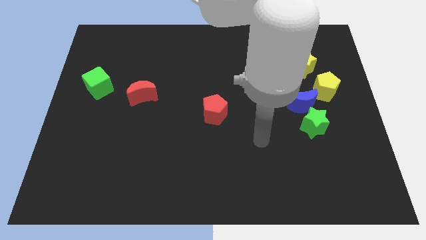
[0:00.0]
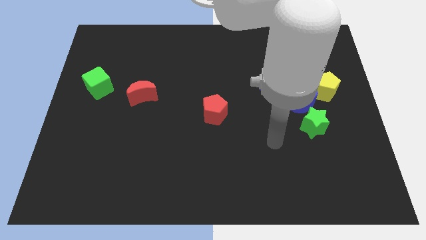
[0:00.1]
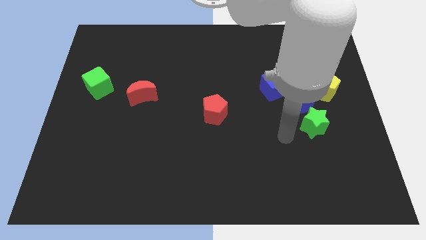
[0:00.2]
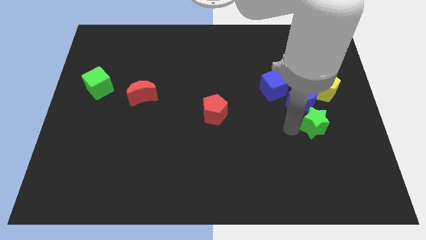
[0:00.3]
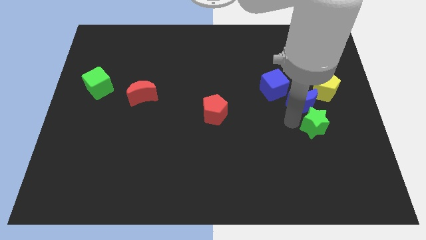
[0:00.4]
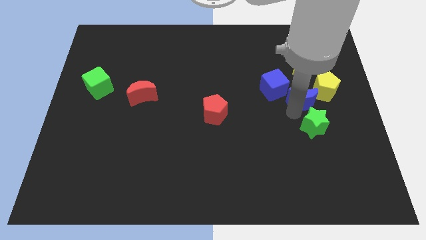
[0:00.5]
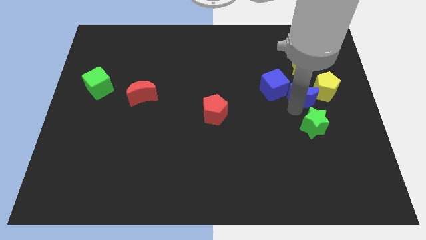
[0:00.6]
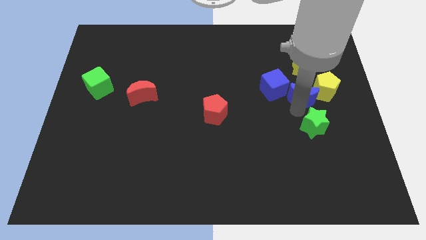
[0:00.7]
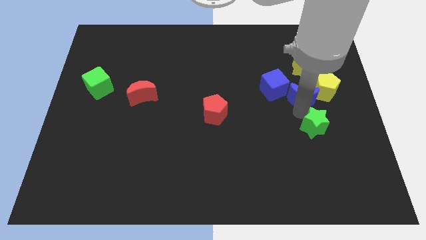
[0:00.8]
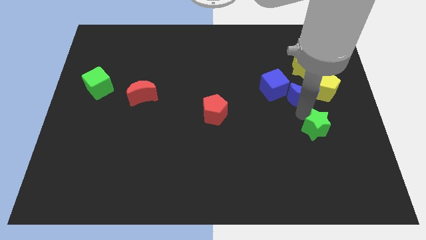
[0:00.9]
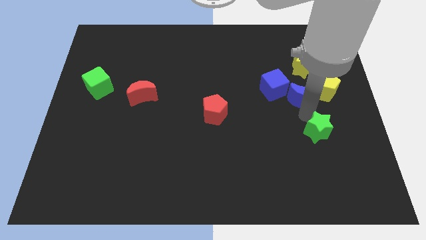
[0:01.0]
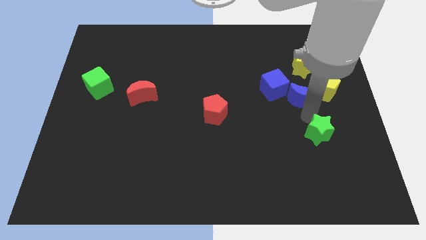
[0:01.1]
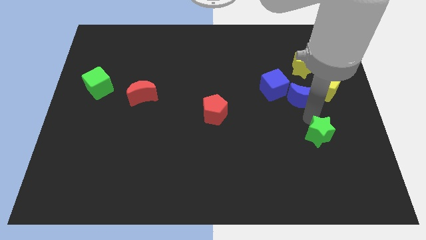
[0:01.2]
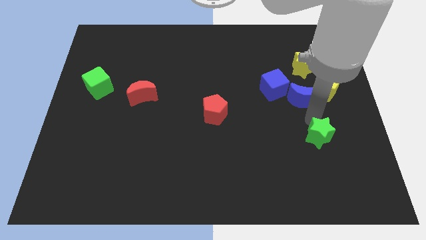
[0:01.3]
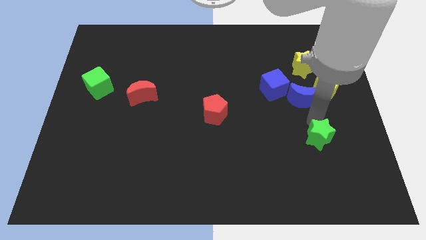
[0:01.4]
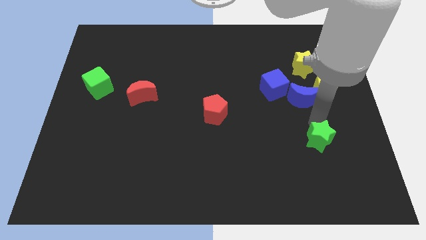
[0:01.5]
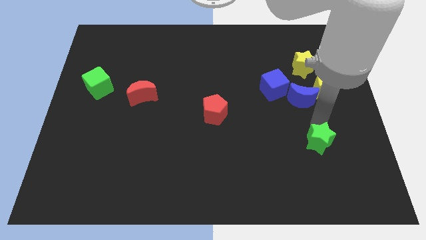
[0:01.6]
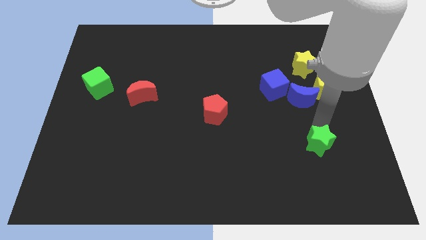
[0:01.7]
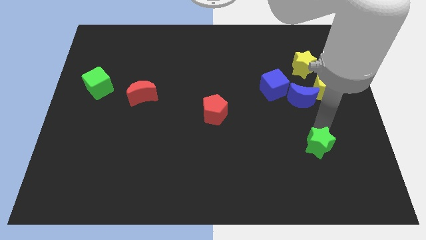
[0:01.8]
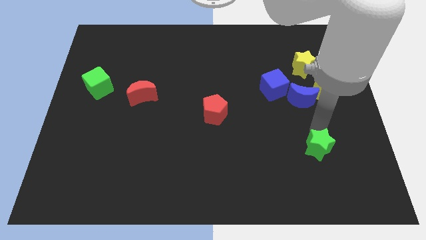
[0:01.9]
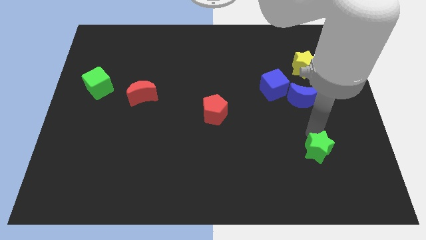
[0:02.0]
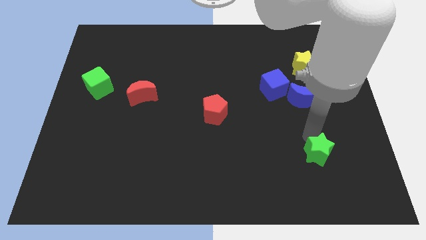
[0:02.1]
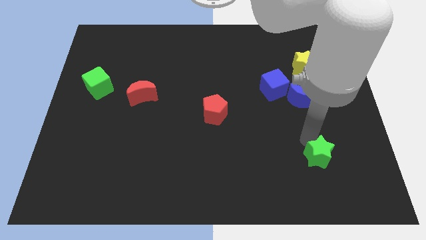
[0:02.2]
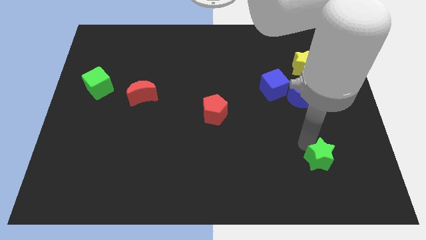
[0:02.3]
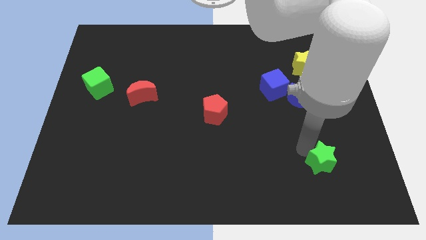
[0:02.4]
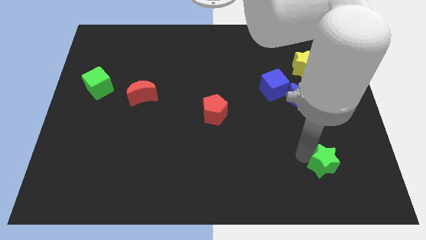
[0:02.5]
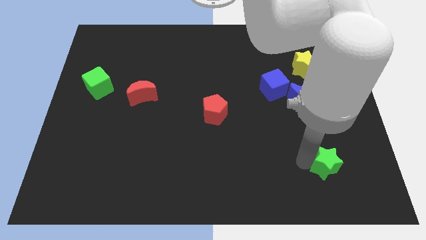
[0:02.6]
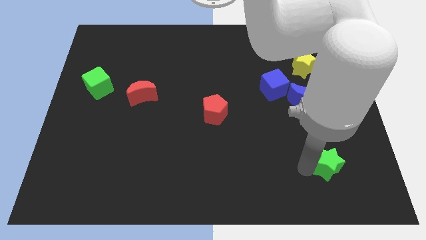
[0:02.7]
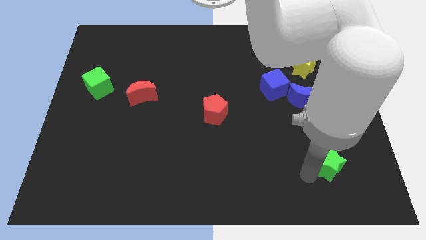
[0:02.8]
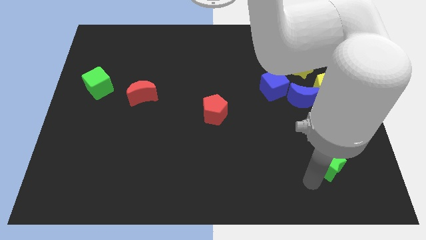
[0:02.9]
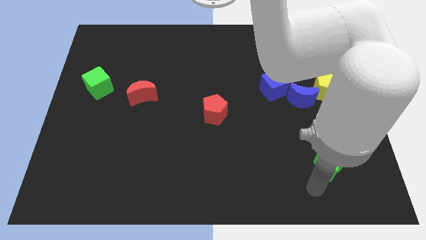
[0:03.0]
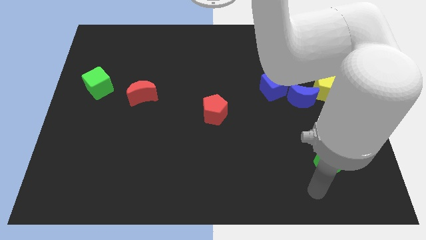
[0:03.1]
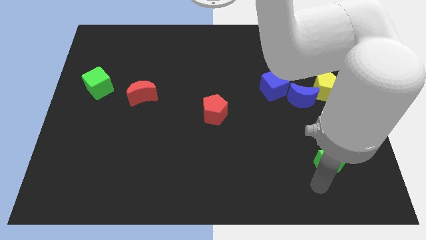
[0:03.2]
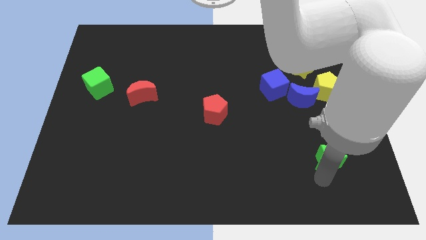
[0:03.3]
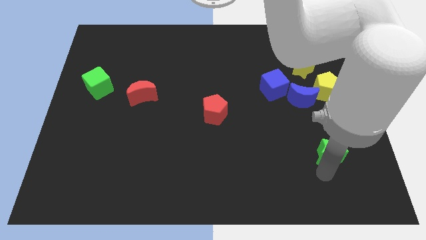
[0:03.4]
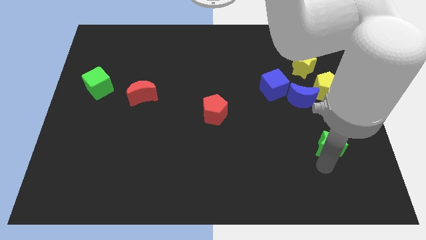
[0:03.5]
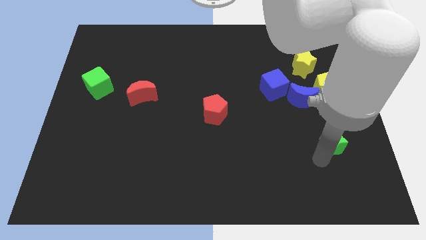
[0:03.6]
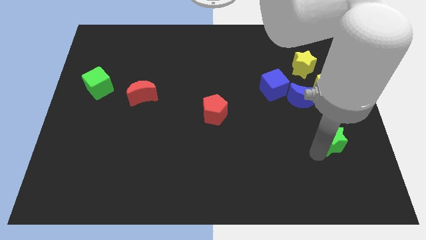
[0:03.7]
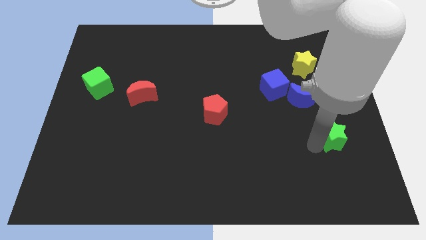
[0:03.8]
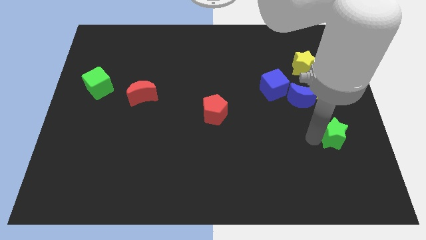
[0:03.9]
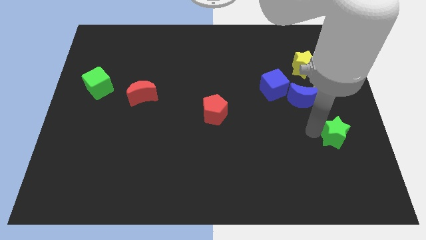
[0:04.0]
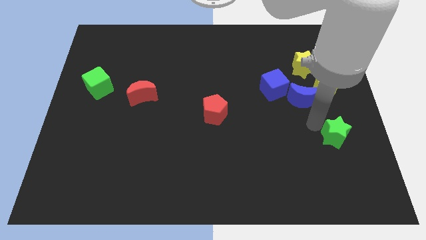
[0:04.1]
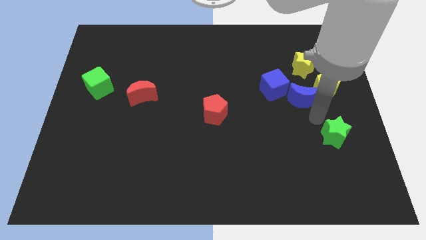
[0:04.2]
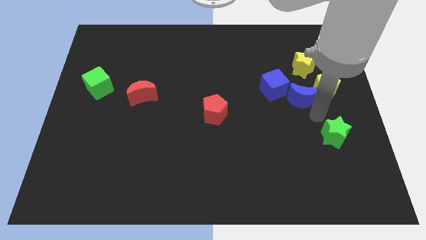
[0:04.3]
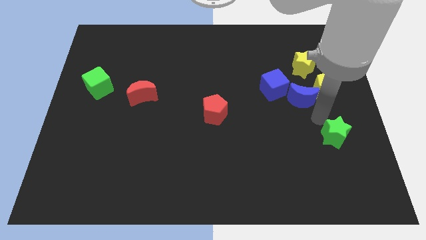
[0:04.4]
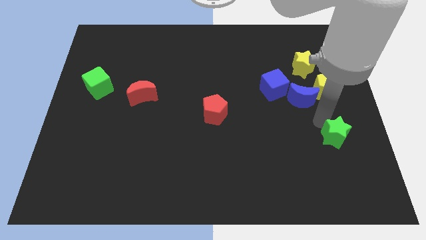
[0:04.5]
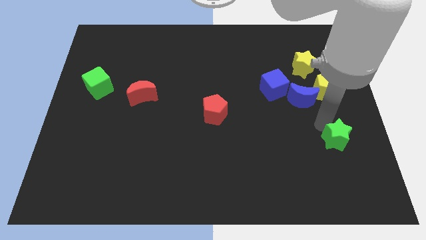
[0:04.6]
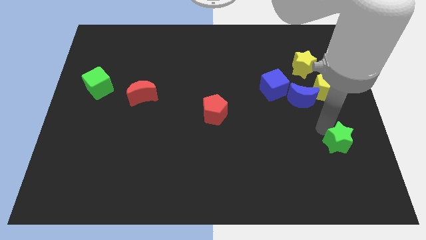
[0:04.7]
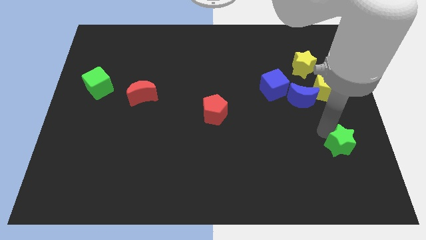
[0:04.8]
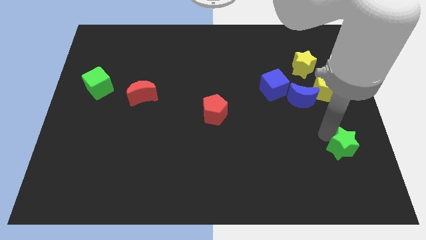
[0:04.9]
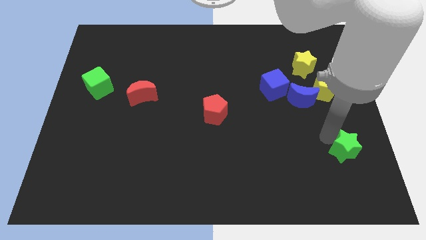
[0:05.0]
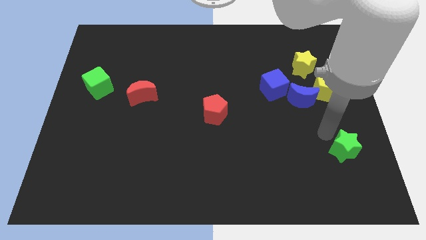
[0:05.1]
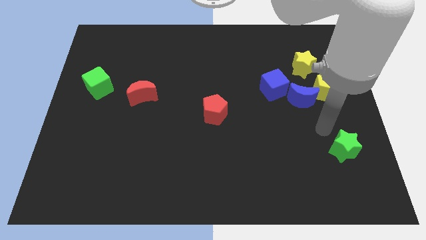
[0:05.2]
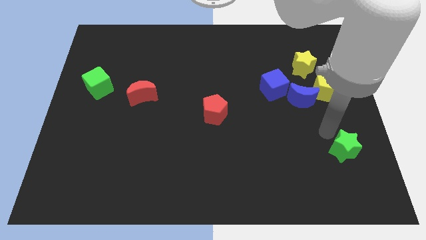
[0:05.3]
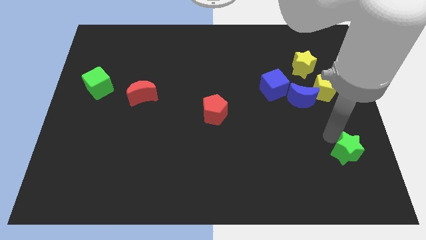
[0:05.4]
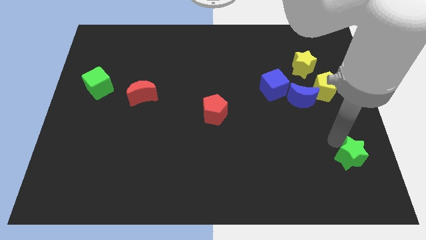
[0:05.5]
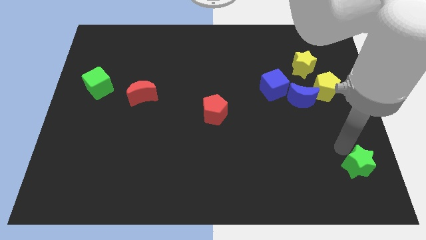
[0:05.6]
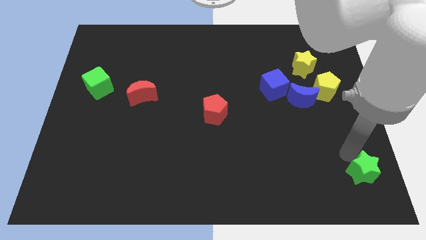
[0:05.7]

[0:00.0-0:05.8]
put the green star to the bottom right

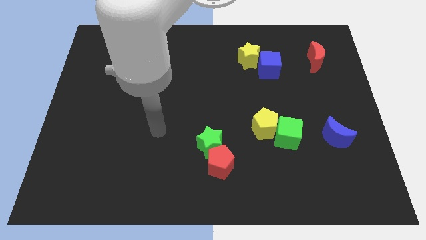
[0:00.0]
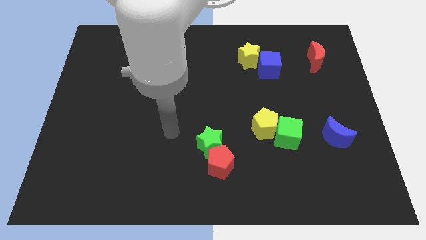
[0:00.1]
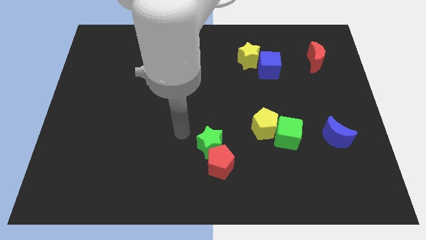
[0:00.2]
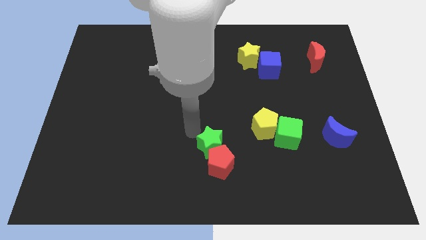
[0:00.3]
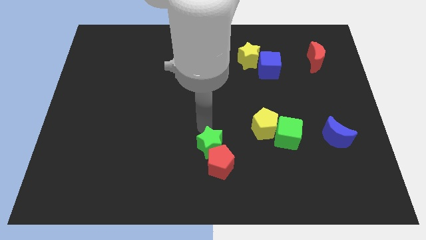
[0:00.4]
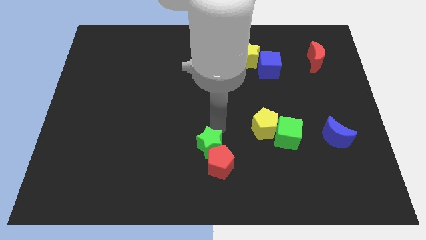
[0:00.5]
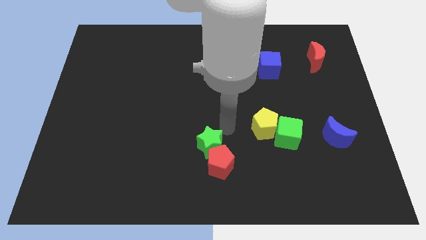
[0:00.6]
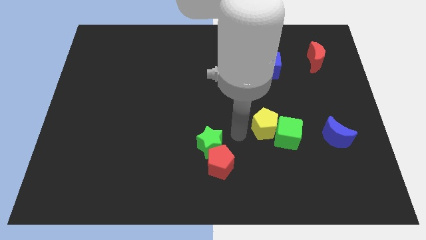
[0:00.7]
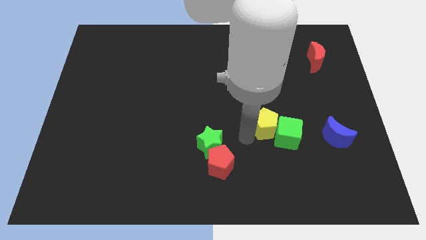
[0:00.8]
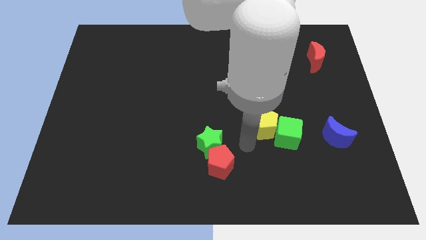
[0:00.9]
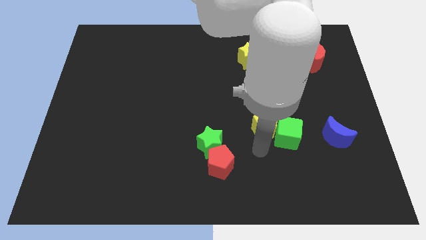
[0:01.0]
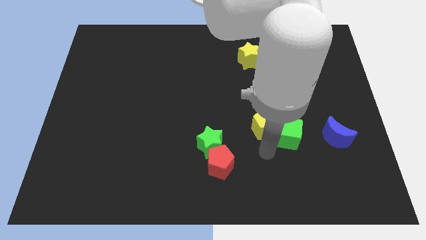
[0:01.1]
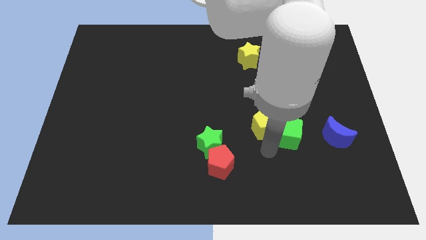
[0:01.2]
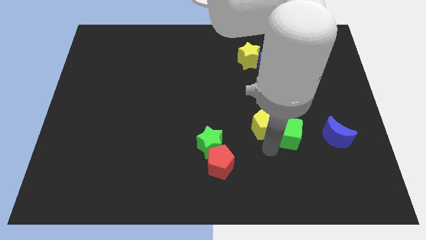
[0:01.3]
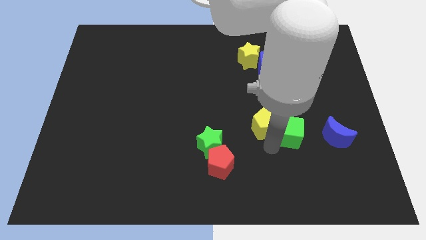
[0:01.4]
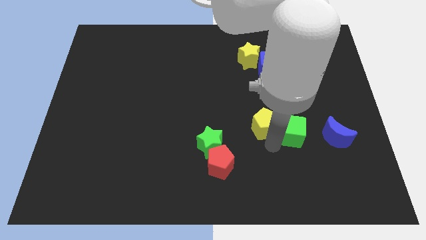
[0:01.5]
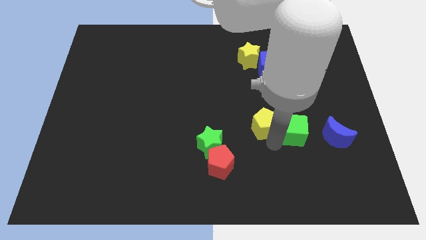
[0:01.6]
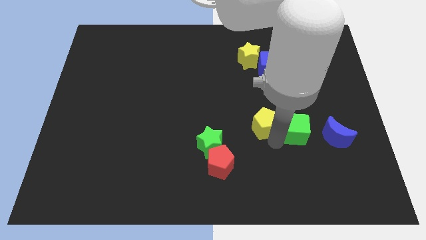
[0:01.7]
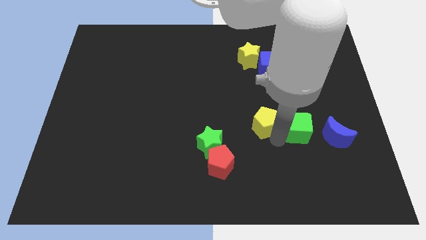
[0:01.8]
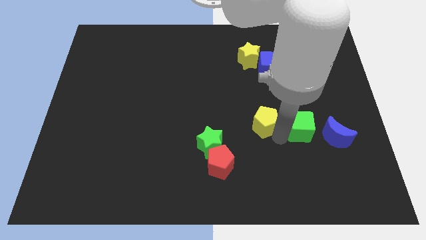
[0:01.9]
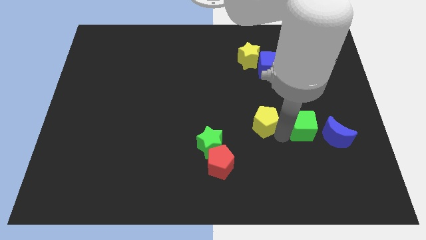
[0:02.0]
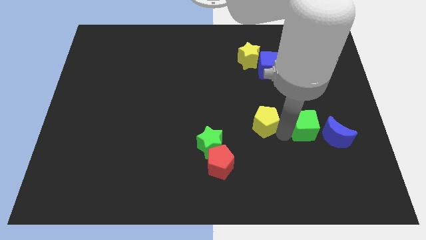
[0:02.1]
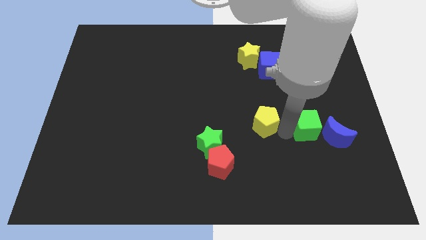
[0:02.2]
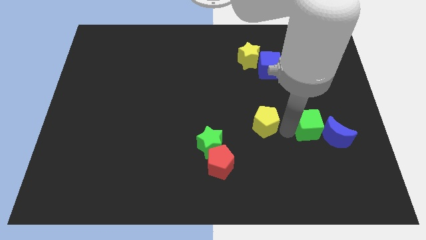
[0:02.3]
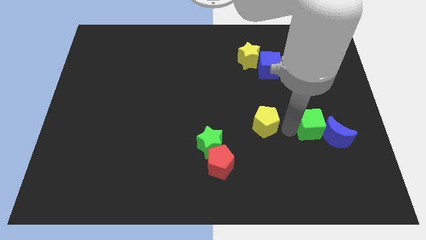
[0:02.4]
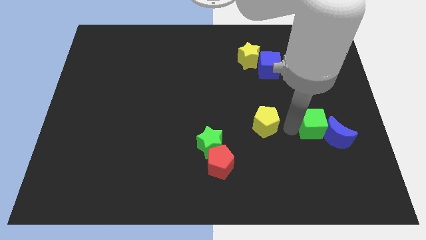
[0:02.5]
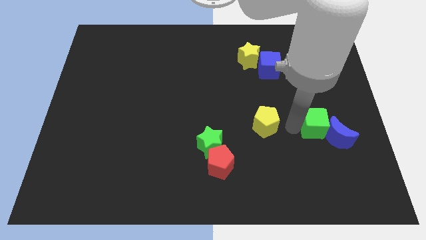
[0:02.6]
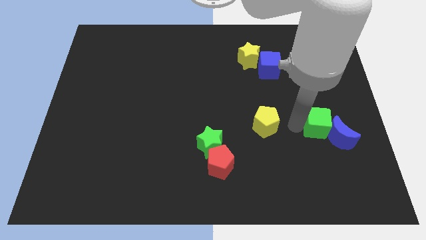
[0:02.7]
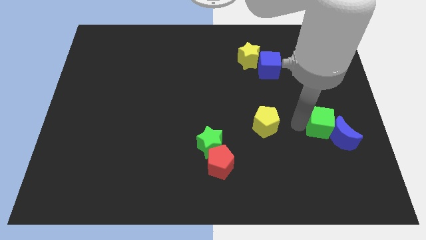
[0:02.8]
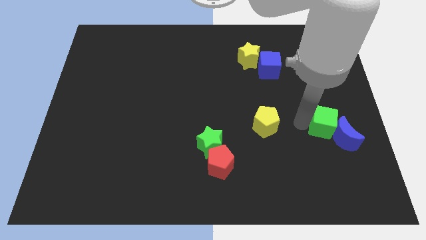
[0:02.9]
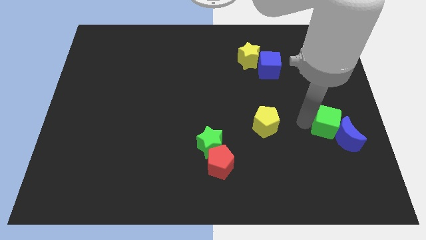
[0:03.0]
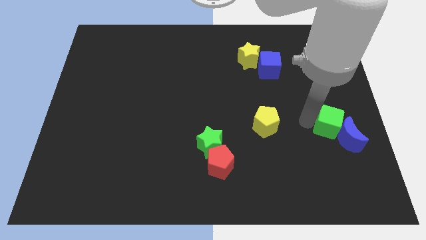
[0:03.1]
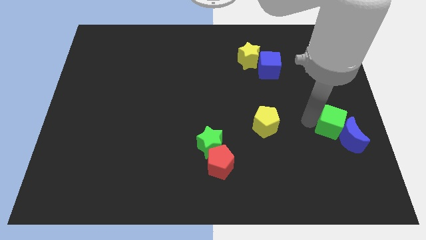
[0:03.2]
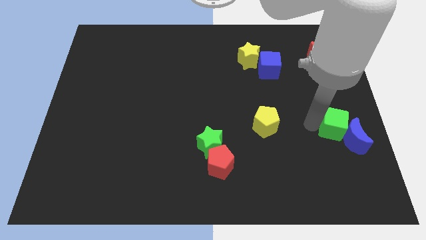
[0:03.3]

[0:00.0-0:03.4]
move the green cube to the center right
